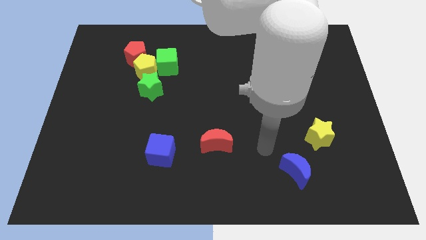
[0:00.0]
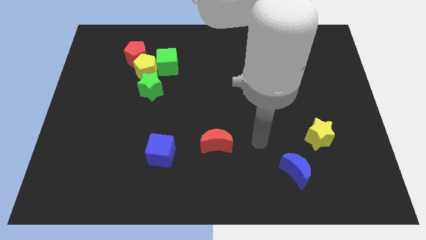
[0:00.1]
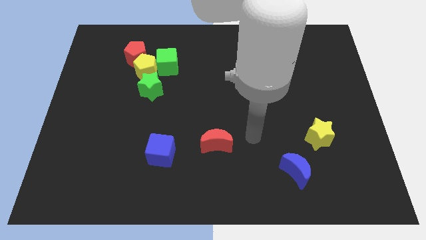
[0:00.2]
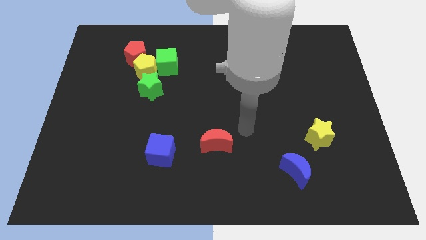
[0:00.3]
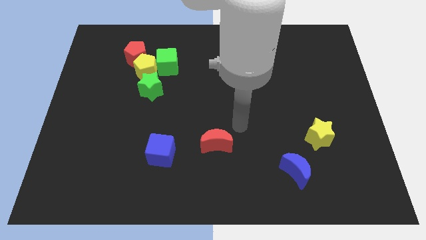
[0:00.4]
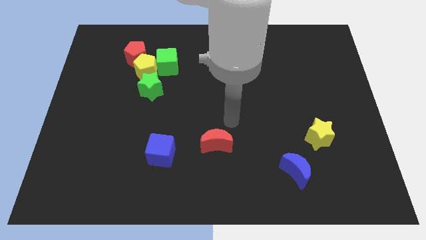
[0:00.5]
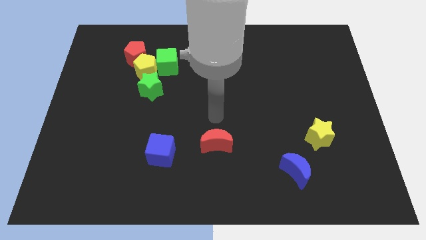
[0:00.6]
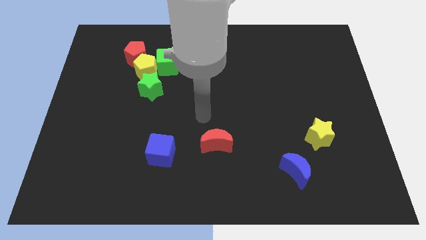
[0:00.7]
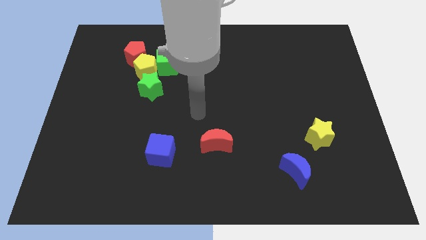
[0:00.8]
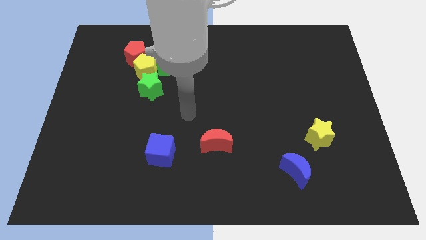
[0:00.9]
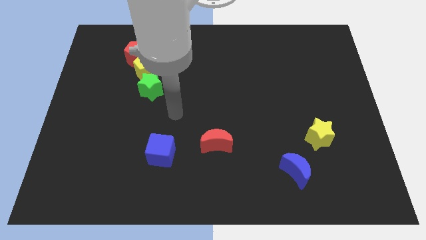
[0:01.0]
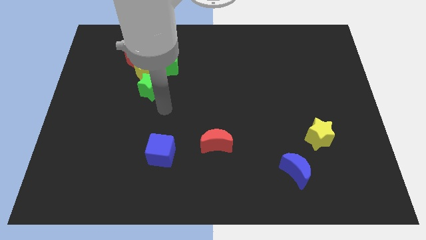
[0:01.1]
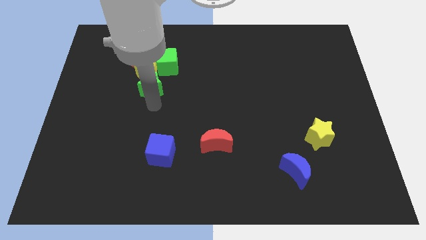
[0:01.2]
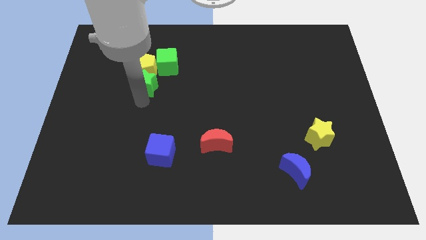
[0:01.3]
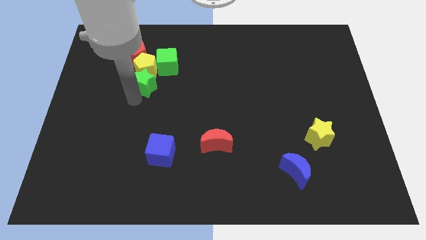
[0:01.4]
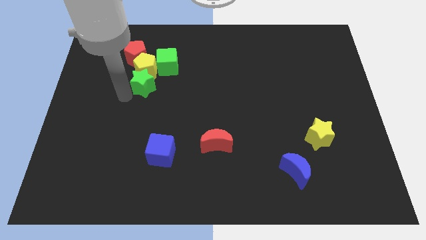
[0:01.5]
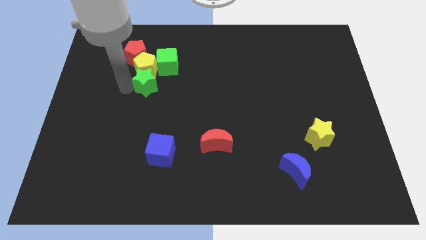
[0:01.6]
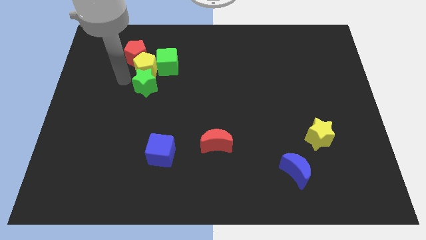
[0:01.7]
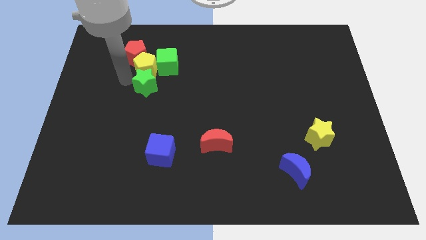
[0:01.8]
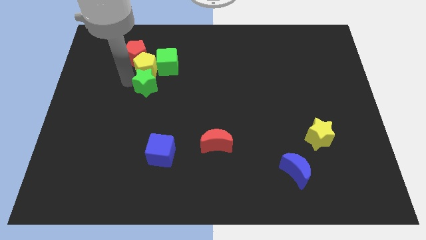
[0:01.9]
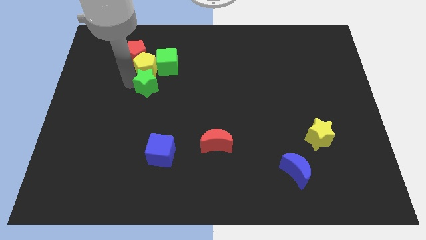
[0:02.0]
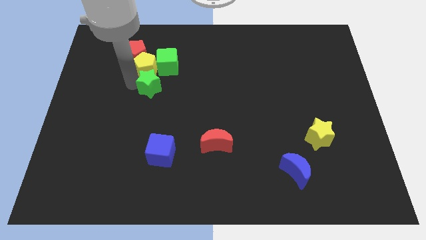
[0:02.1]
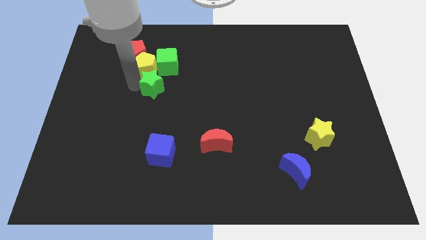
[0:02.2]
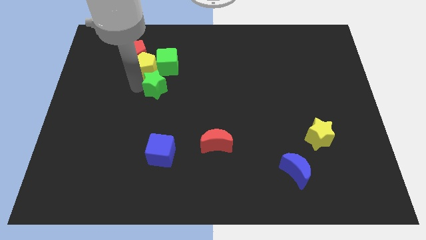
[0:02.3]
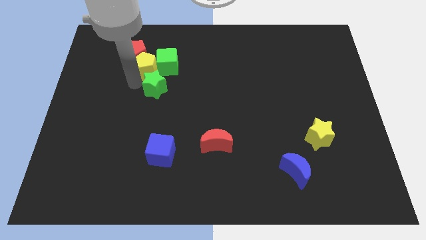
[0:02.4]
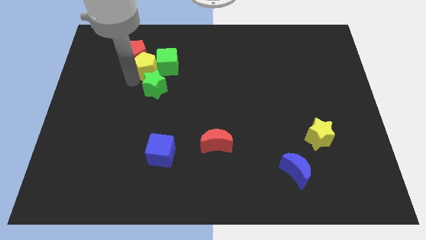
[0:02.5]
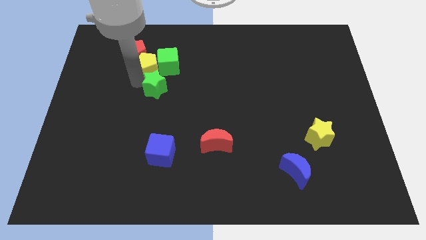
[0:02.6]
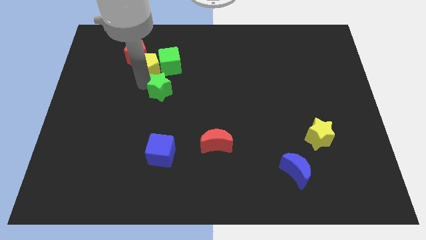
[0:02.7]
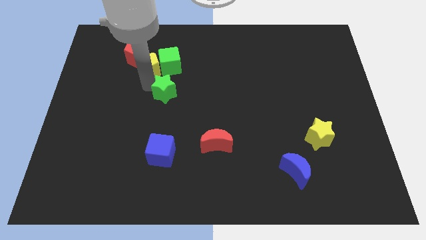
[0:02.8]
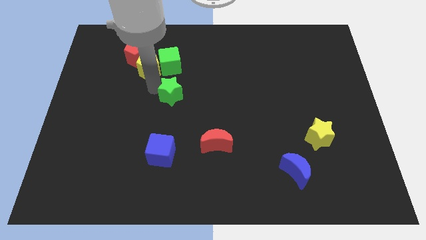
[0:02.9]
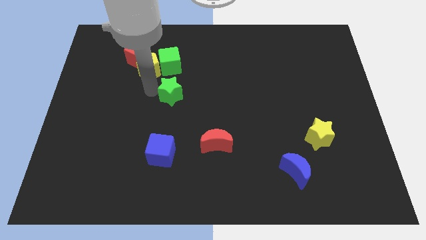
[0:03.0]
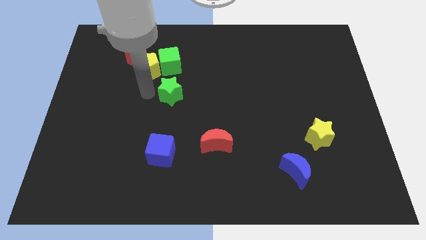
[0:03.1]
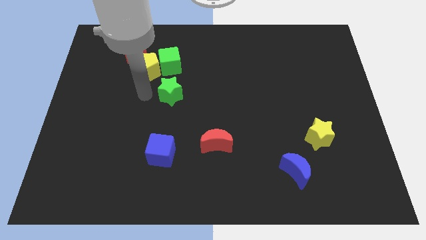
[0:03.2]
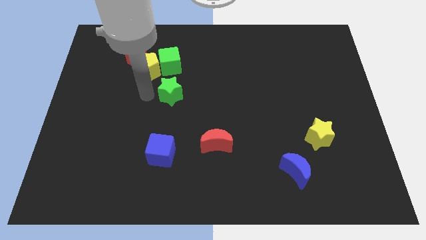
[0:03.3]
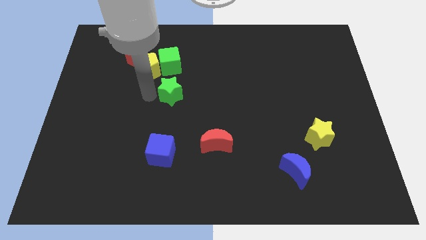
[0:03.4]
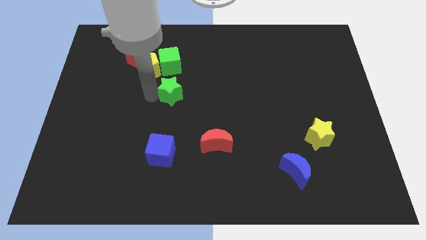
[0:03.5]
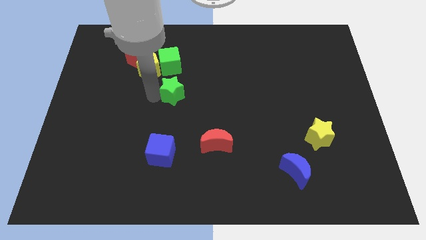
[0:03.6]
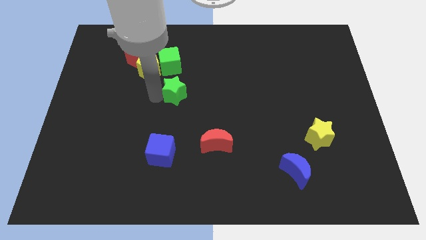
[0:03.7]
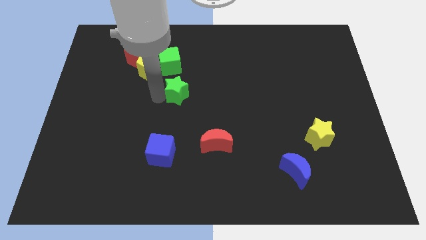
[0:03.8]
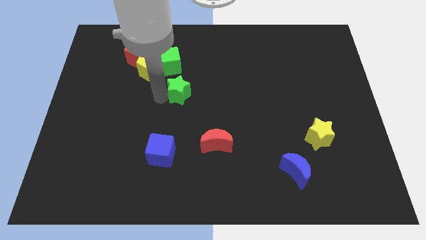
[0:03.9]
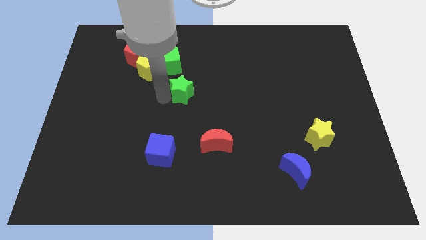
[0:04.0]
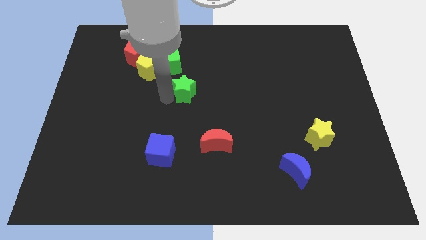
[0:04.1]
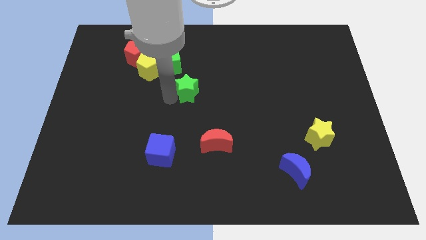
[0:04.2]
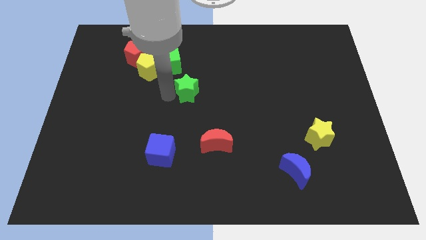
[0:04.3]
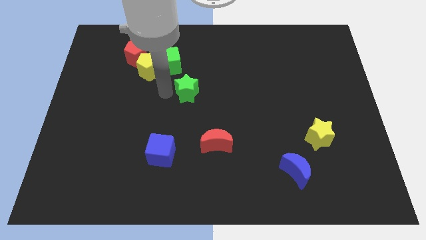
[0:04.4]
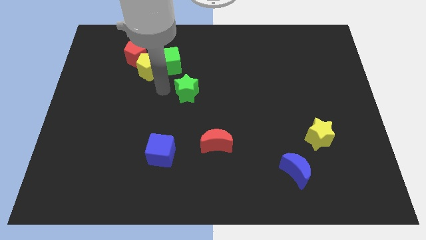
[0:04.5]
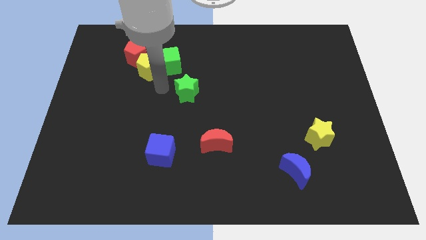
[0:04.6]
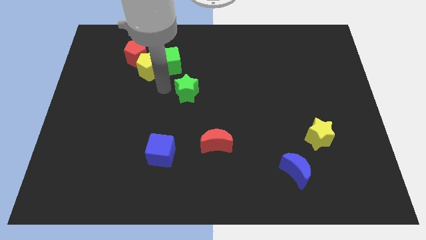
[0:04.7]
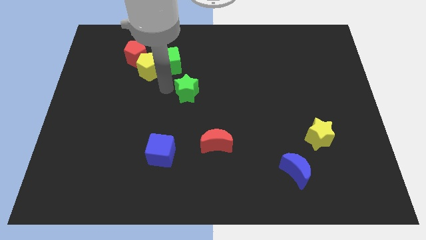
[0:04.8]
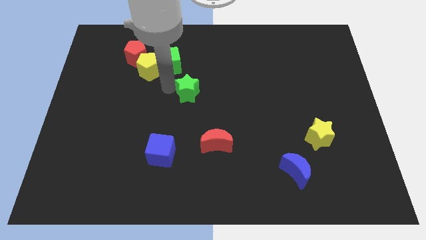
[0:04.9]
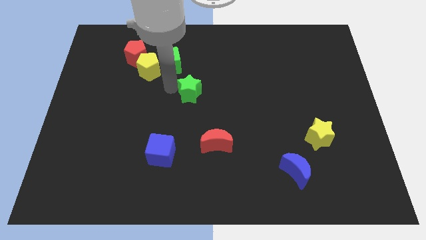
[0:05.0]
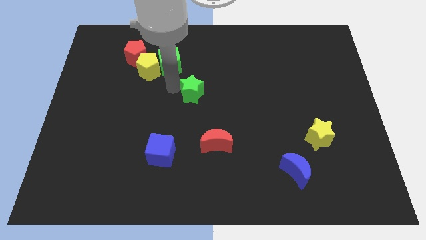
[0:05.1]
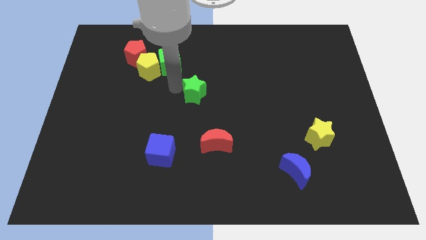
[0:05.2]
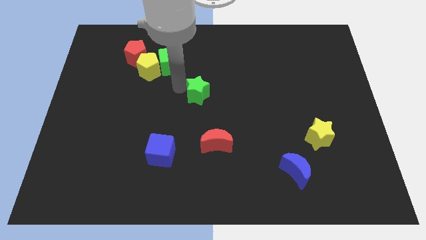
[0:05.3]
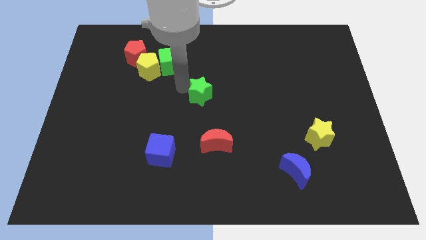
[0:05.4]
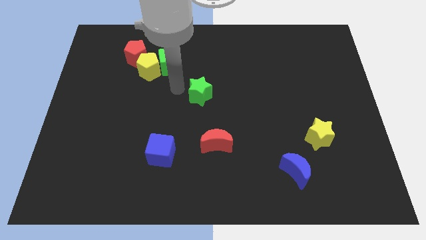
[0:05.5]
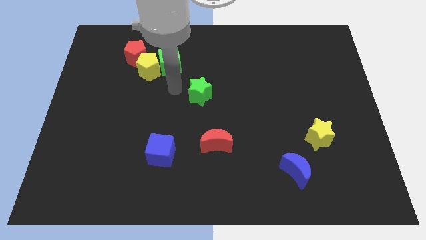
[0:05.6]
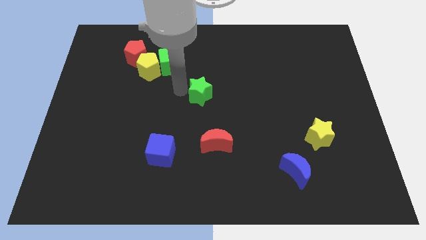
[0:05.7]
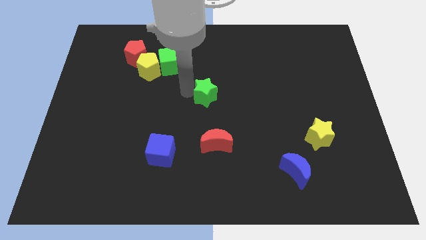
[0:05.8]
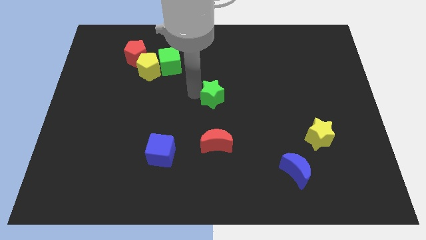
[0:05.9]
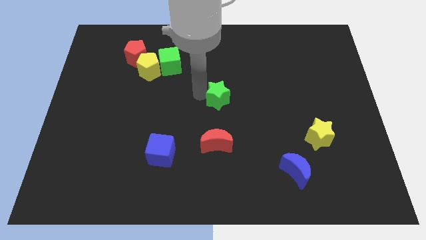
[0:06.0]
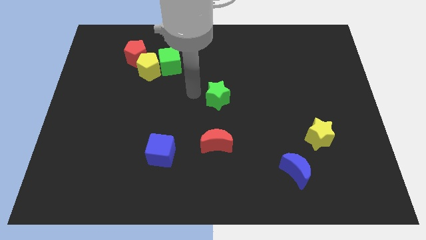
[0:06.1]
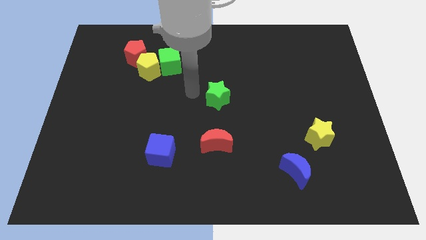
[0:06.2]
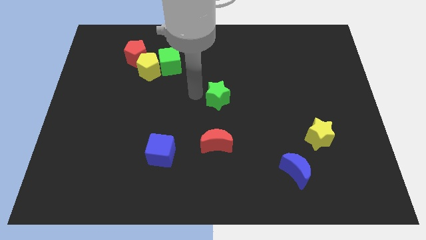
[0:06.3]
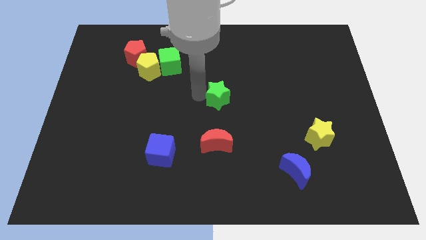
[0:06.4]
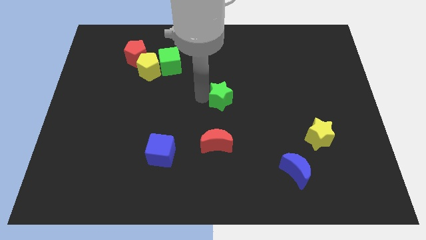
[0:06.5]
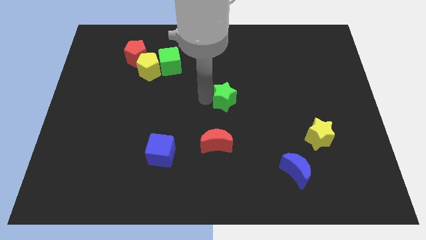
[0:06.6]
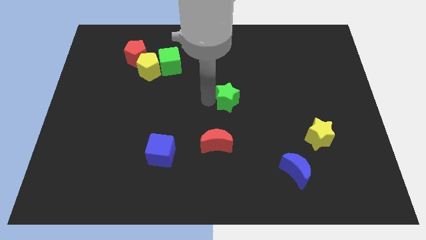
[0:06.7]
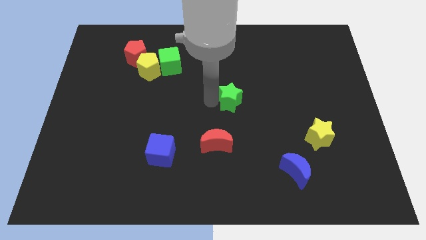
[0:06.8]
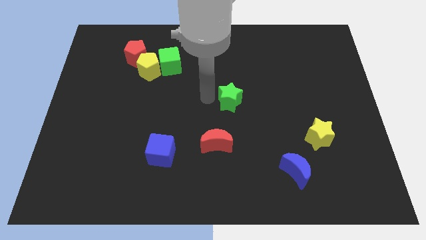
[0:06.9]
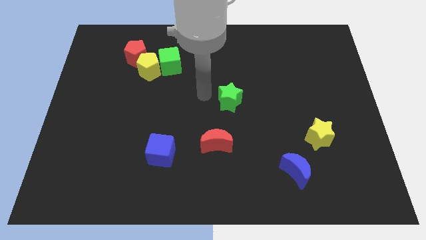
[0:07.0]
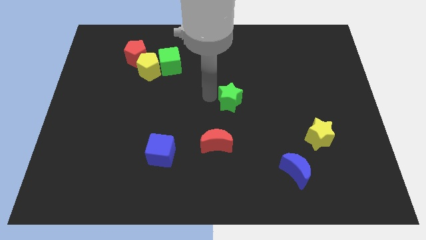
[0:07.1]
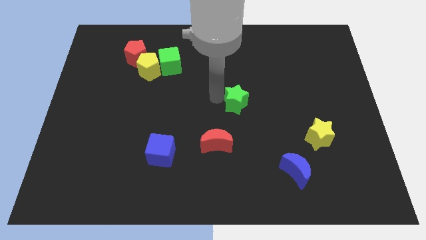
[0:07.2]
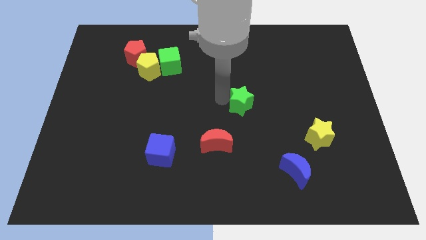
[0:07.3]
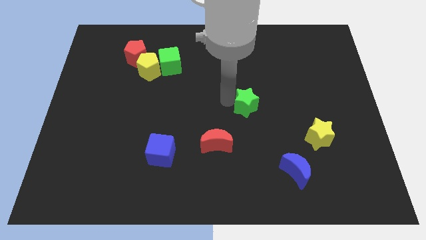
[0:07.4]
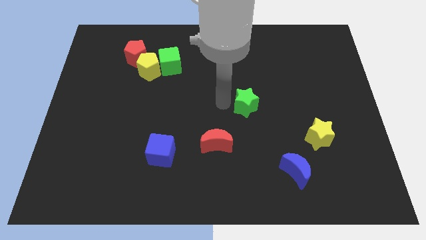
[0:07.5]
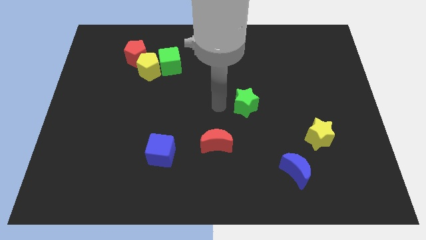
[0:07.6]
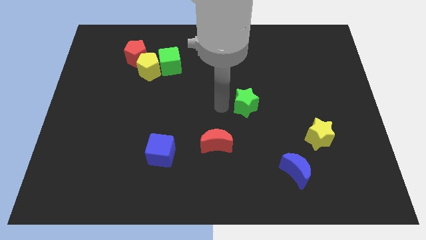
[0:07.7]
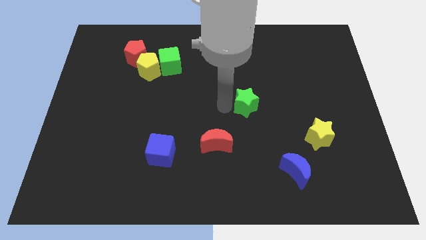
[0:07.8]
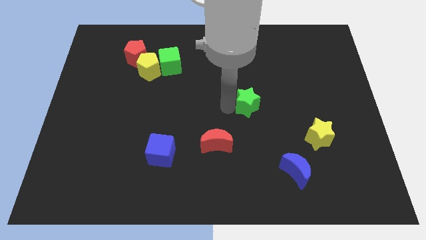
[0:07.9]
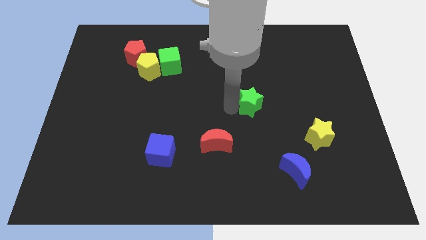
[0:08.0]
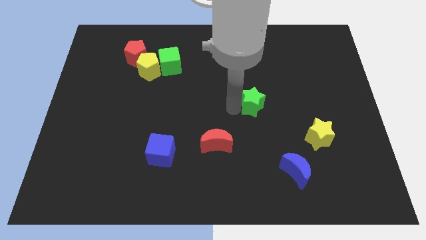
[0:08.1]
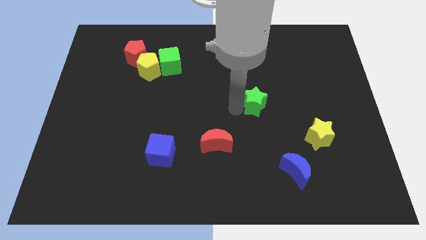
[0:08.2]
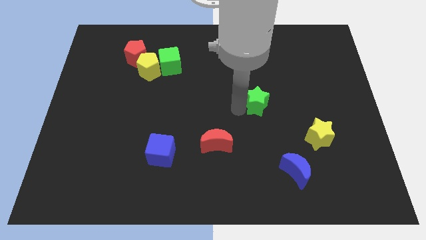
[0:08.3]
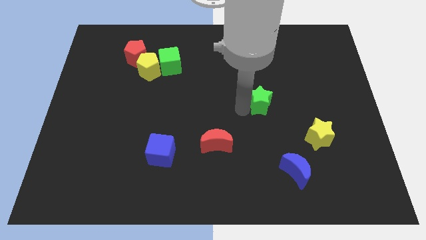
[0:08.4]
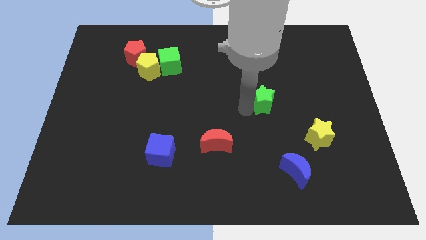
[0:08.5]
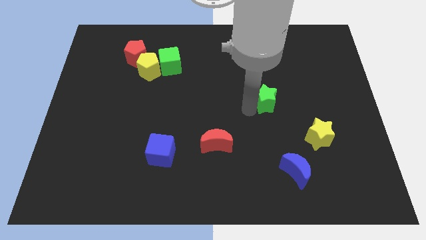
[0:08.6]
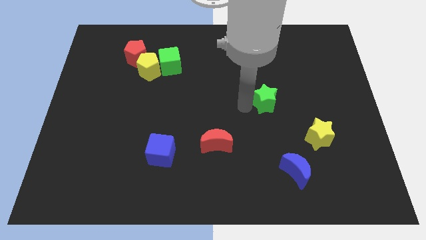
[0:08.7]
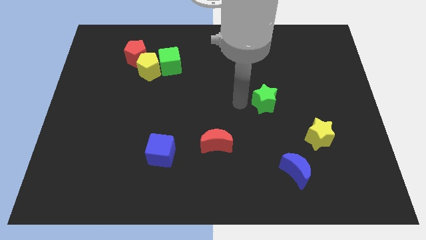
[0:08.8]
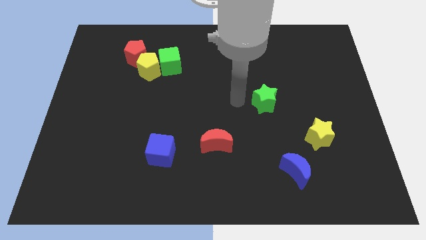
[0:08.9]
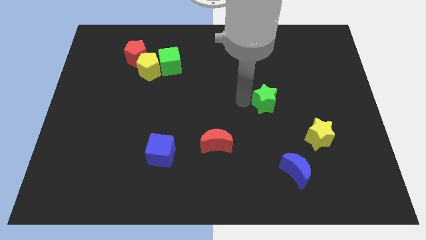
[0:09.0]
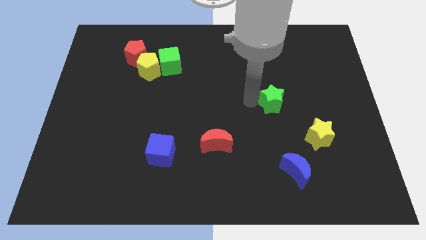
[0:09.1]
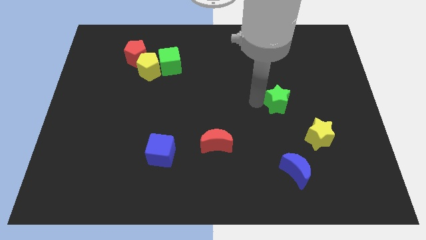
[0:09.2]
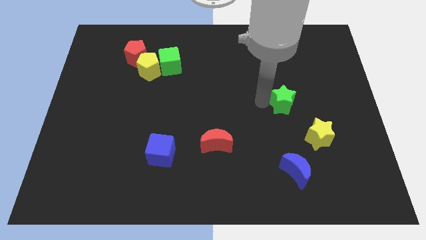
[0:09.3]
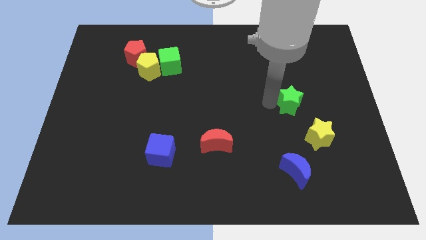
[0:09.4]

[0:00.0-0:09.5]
move the green star to the top of the yellow star
